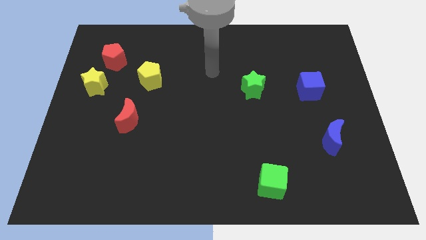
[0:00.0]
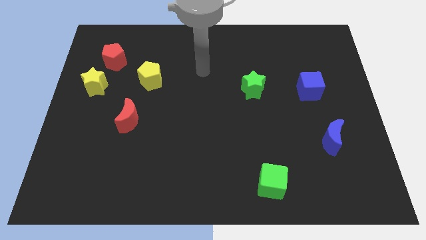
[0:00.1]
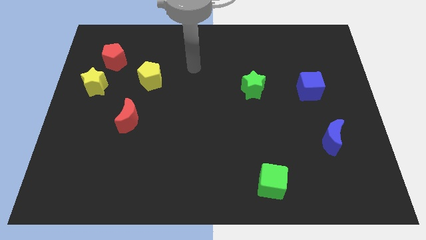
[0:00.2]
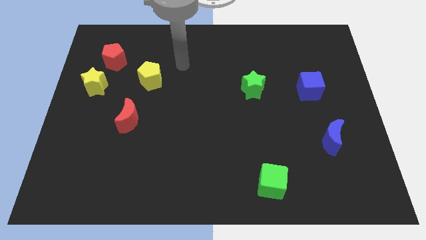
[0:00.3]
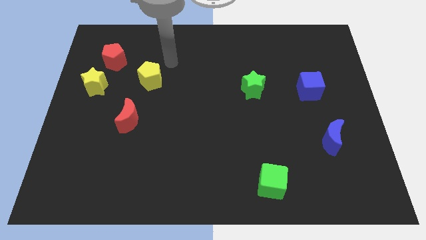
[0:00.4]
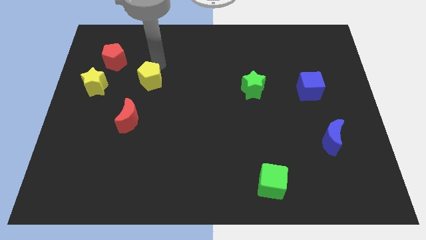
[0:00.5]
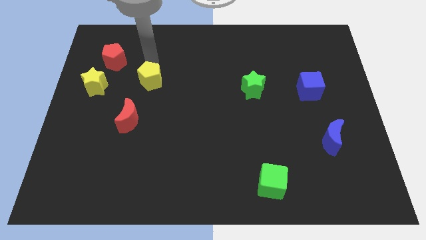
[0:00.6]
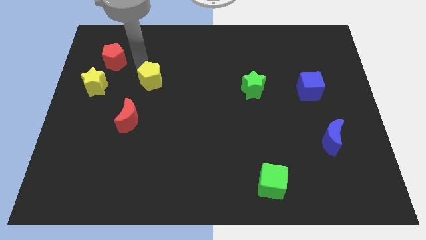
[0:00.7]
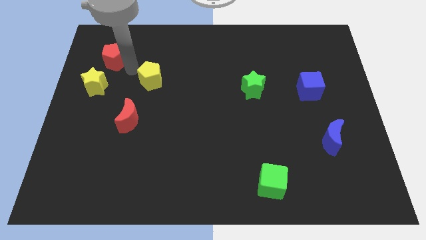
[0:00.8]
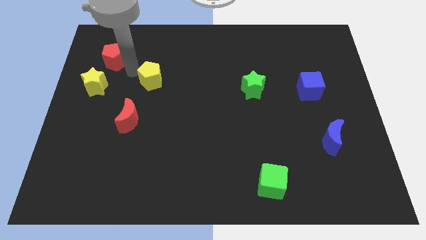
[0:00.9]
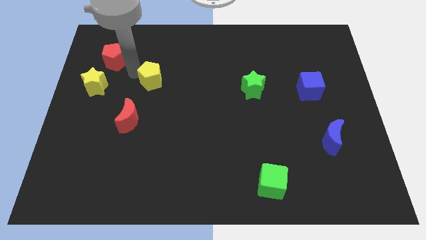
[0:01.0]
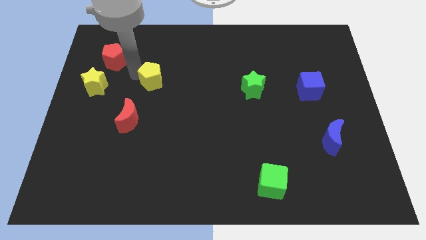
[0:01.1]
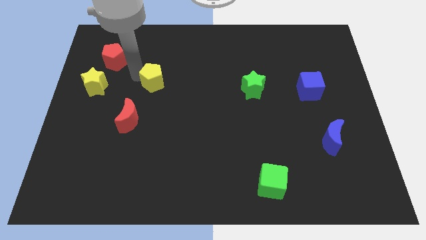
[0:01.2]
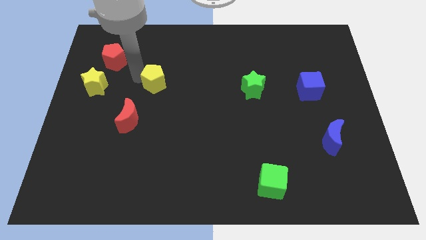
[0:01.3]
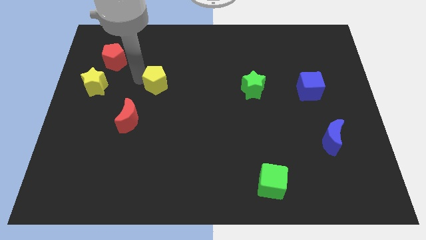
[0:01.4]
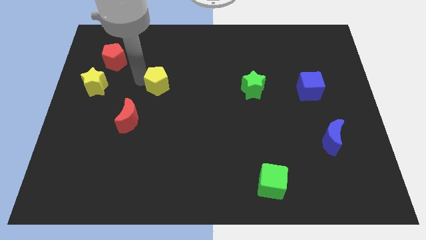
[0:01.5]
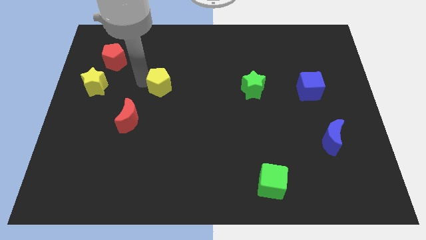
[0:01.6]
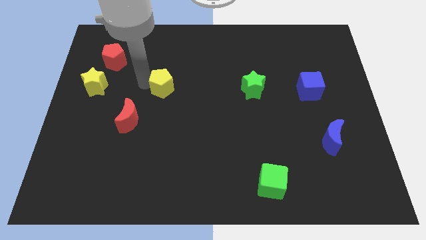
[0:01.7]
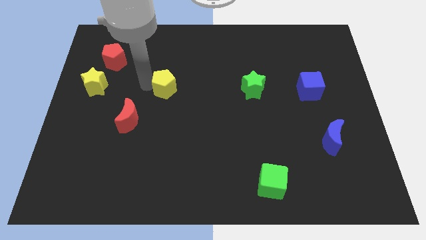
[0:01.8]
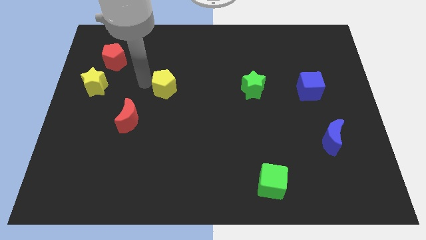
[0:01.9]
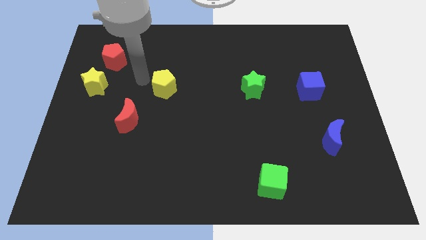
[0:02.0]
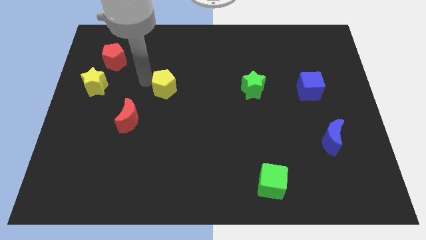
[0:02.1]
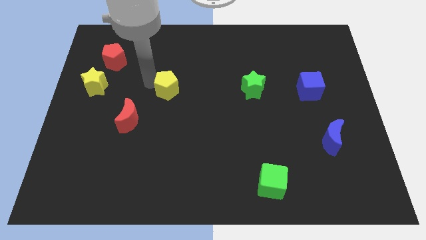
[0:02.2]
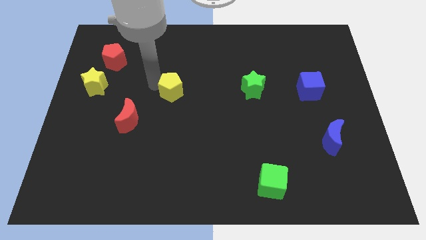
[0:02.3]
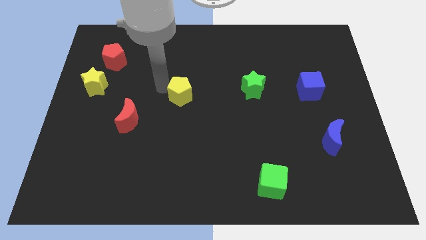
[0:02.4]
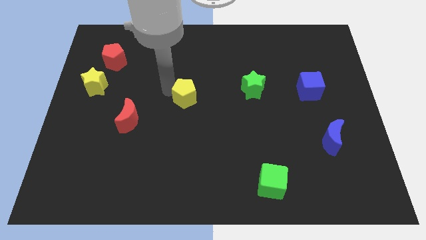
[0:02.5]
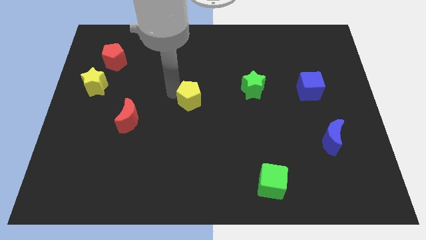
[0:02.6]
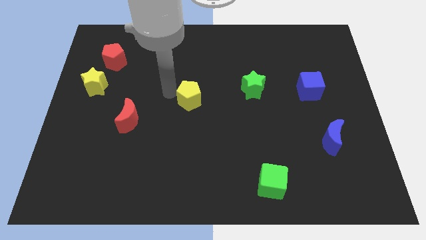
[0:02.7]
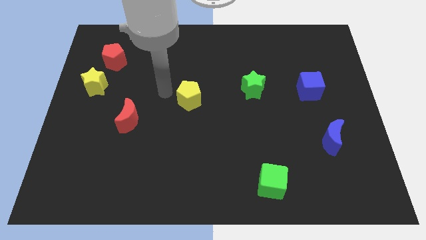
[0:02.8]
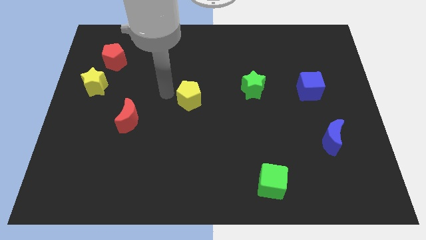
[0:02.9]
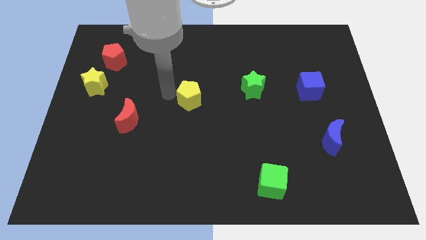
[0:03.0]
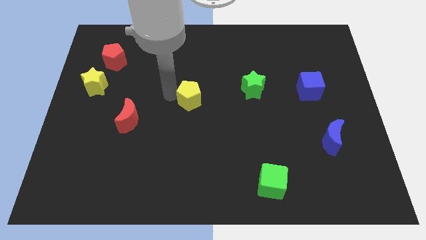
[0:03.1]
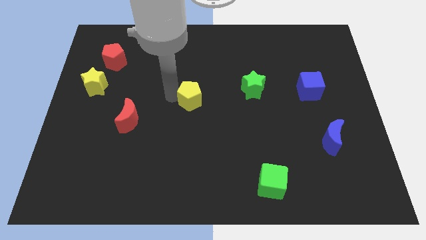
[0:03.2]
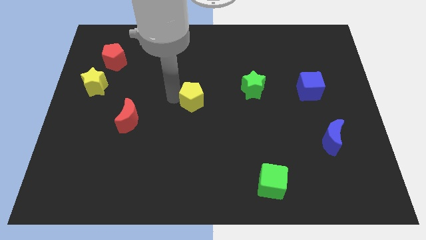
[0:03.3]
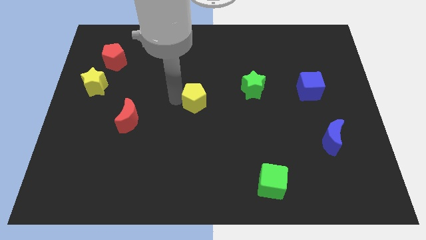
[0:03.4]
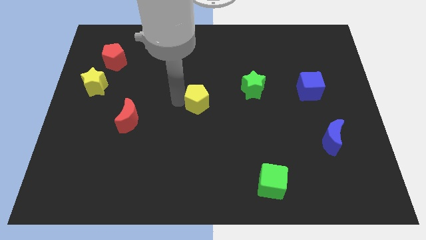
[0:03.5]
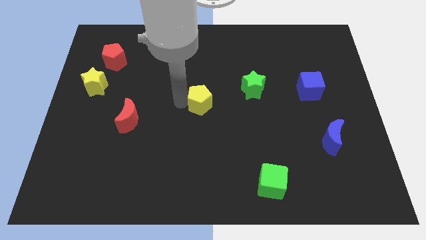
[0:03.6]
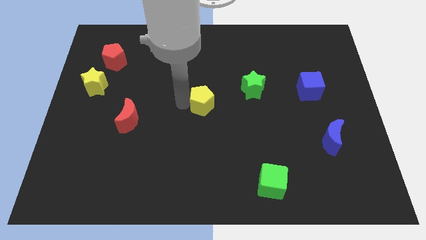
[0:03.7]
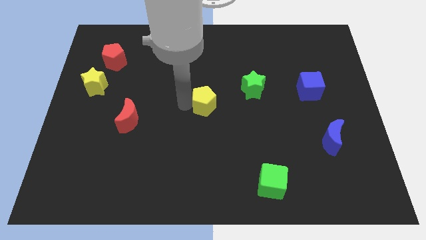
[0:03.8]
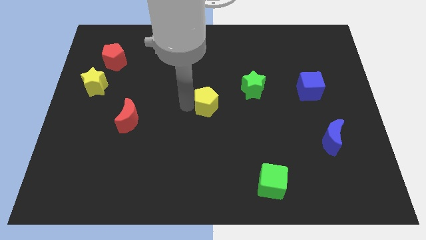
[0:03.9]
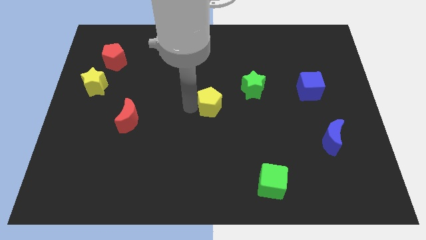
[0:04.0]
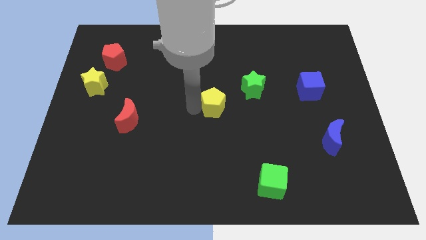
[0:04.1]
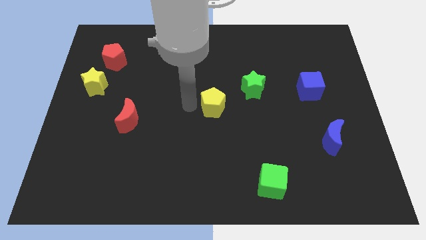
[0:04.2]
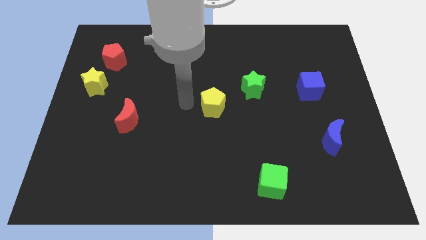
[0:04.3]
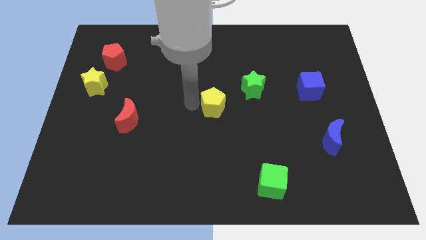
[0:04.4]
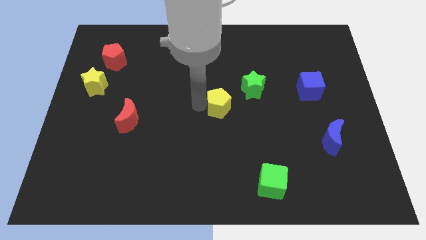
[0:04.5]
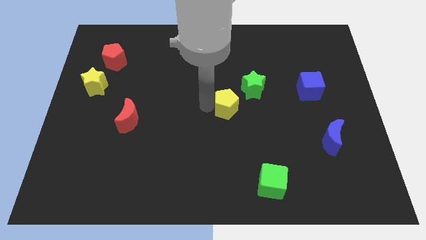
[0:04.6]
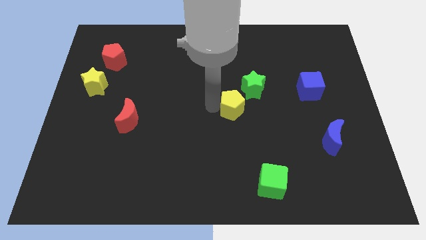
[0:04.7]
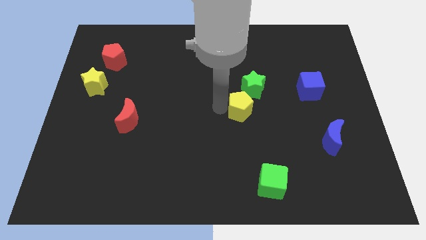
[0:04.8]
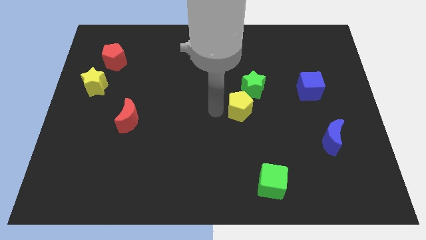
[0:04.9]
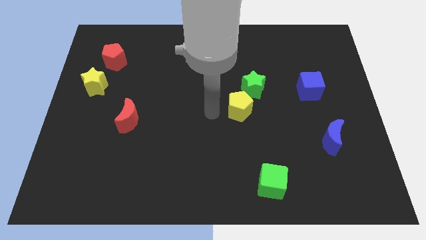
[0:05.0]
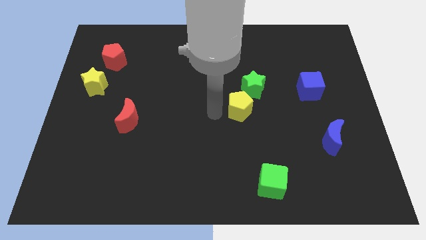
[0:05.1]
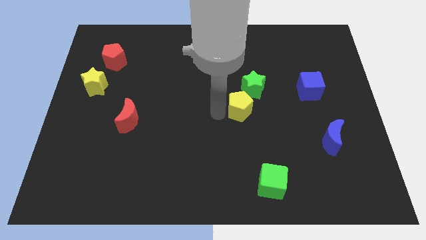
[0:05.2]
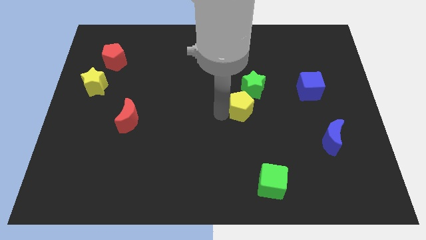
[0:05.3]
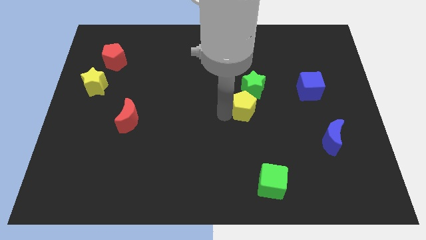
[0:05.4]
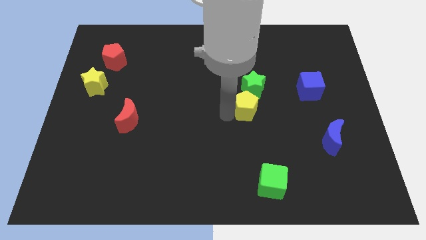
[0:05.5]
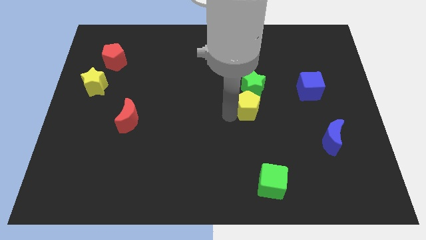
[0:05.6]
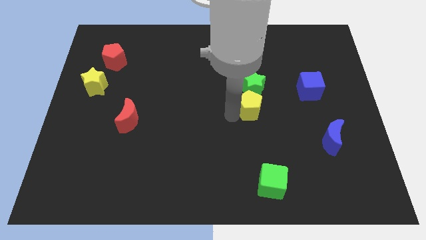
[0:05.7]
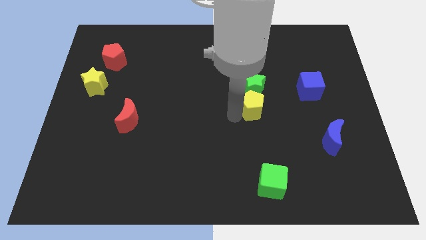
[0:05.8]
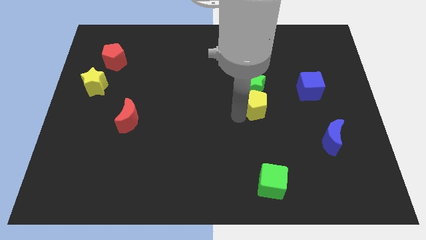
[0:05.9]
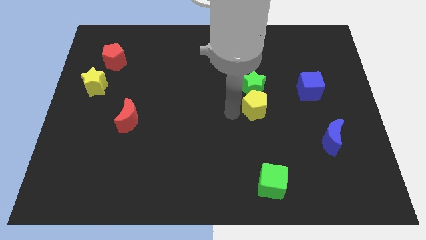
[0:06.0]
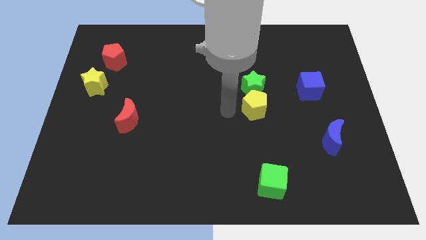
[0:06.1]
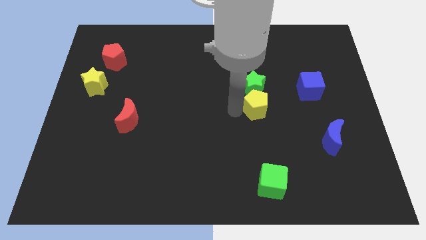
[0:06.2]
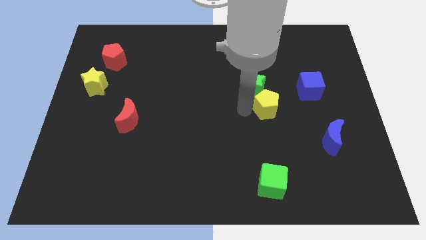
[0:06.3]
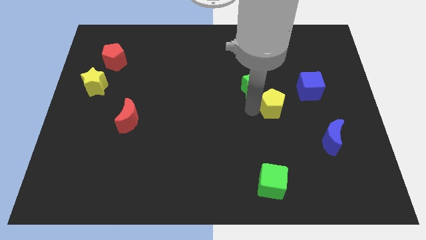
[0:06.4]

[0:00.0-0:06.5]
slide the yellow pentagon to the bottom left of the blue cube
